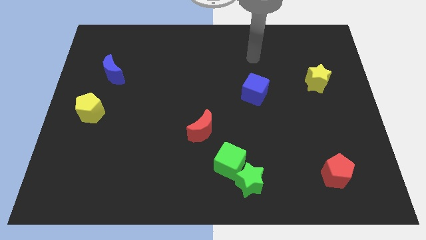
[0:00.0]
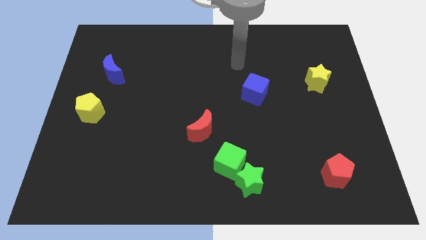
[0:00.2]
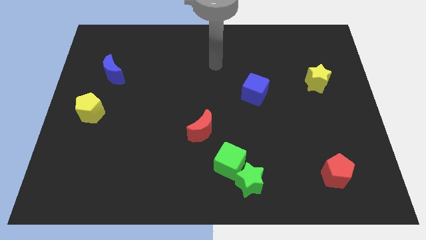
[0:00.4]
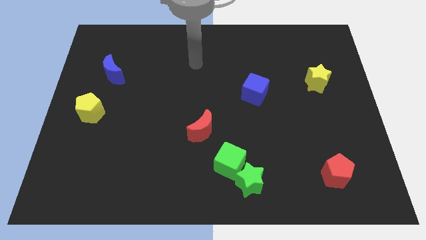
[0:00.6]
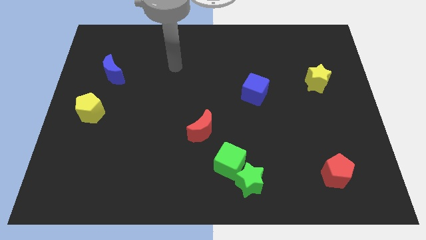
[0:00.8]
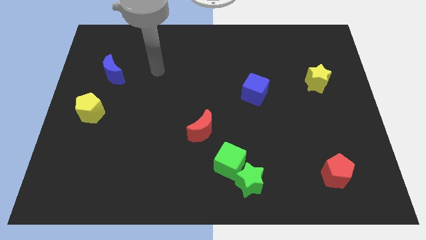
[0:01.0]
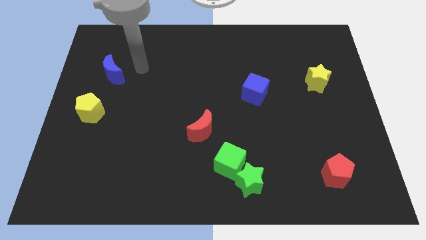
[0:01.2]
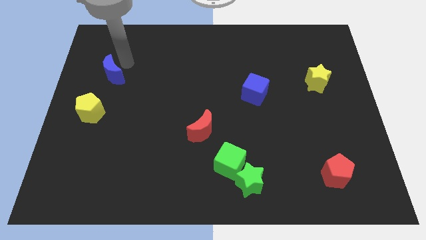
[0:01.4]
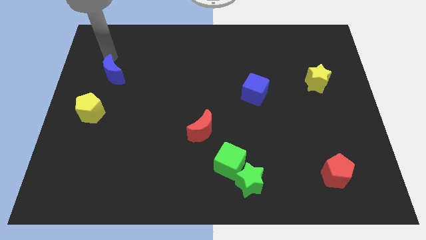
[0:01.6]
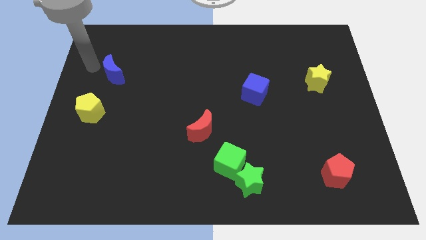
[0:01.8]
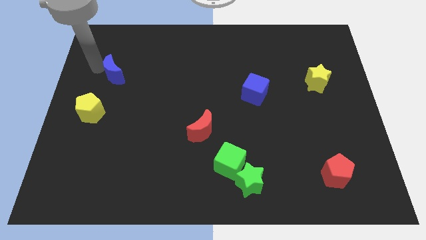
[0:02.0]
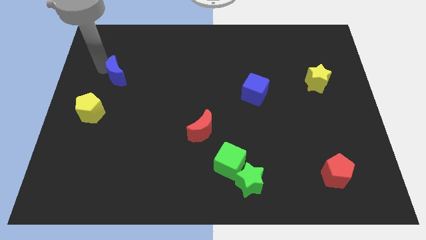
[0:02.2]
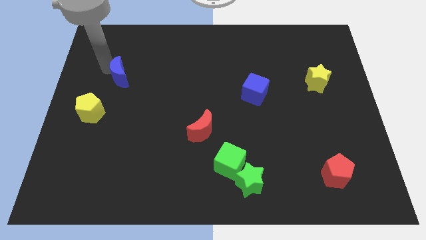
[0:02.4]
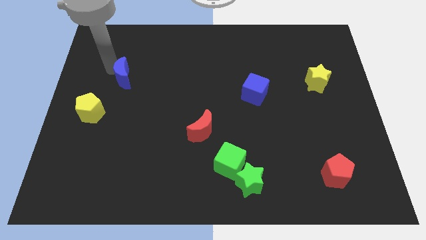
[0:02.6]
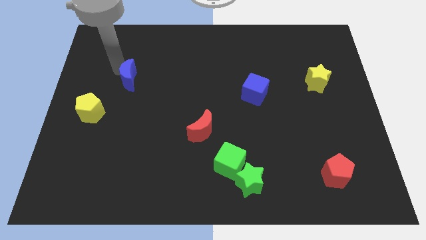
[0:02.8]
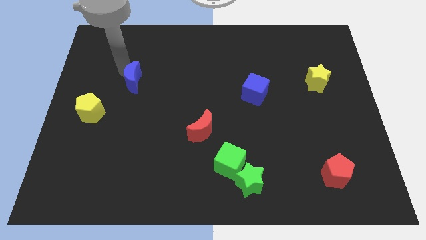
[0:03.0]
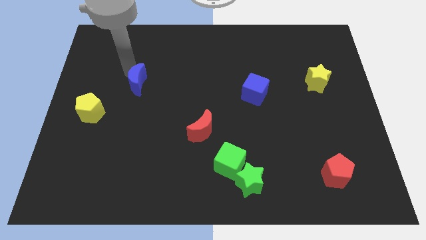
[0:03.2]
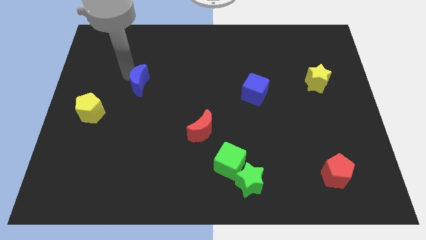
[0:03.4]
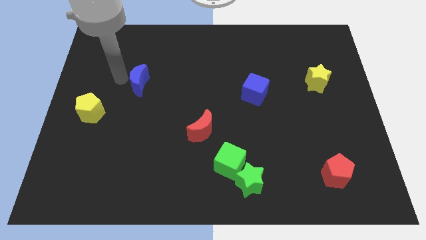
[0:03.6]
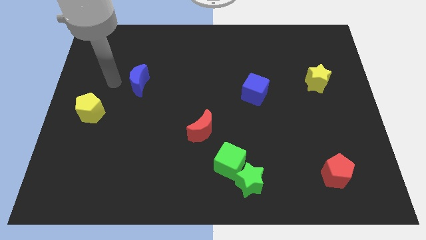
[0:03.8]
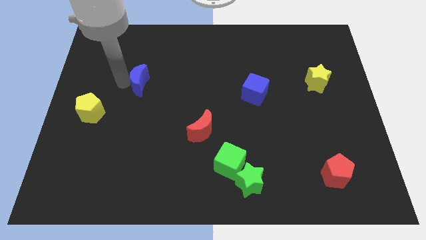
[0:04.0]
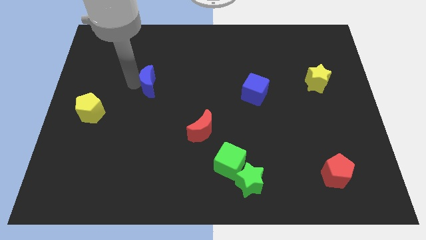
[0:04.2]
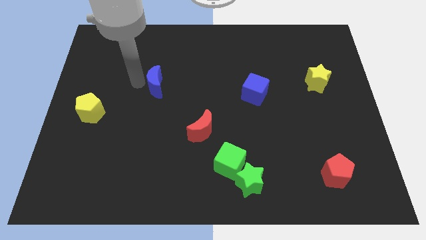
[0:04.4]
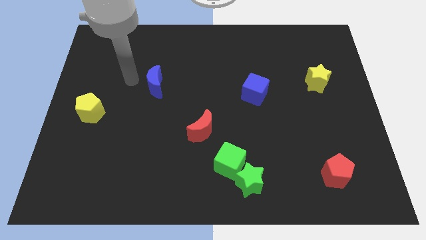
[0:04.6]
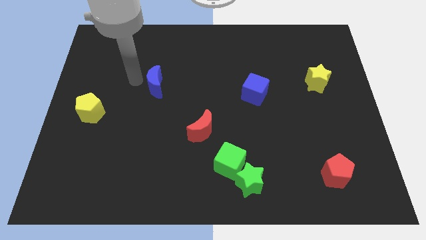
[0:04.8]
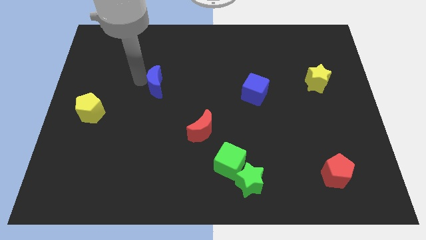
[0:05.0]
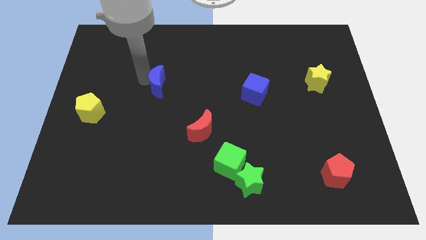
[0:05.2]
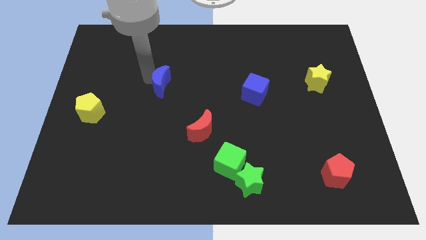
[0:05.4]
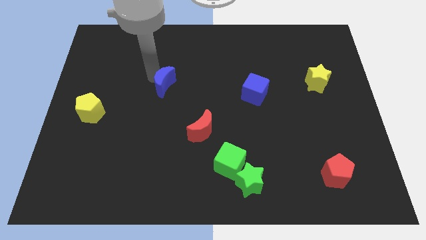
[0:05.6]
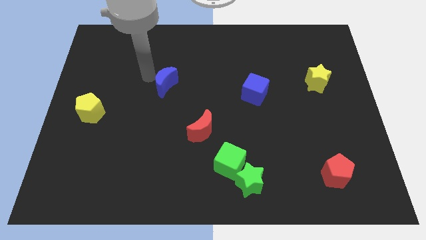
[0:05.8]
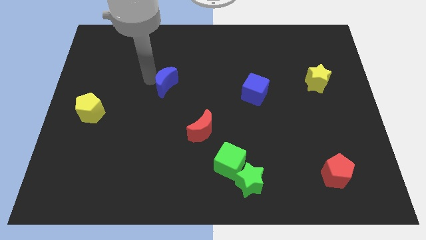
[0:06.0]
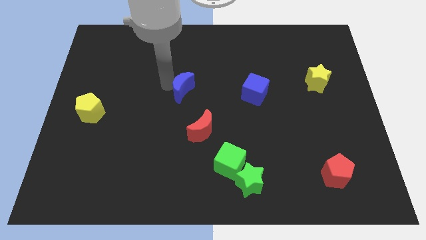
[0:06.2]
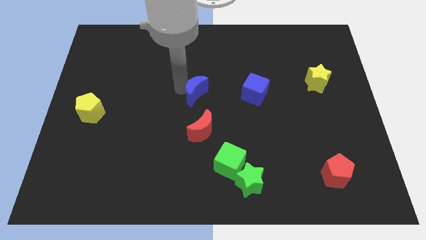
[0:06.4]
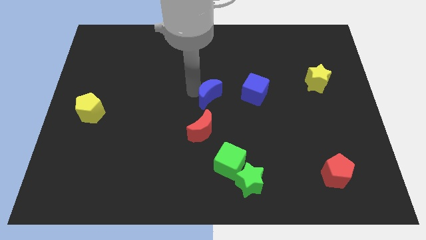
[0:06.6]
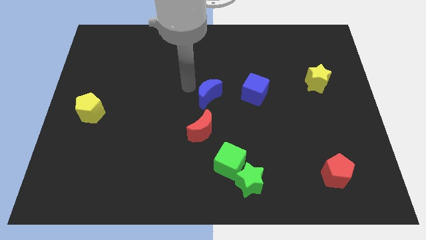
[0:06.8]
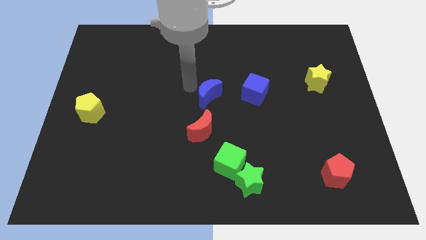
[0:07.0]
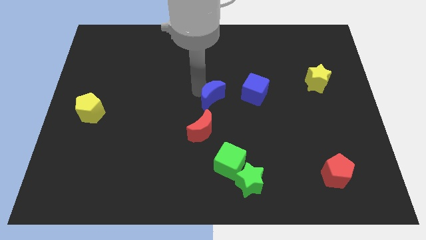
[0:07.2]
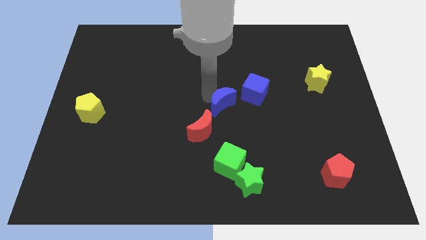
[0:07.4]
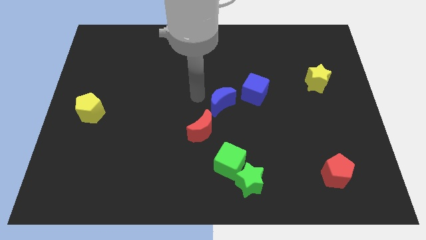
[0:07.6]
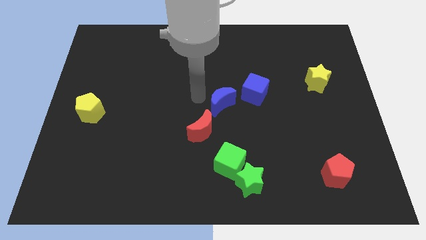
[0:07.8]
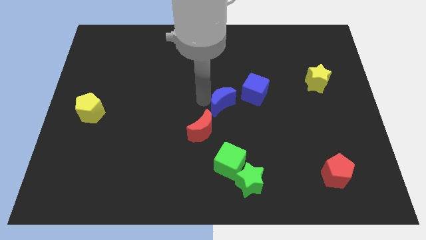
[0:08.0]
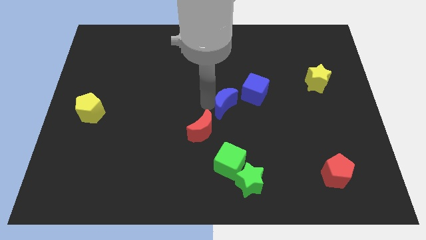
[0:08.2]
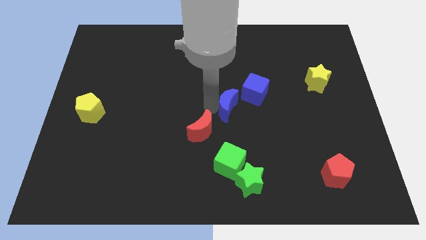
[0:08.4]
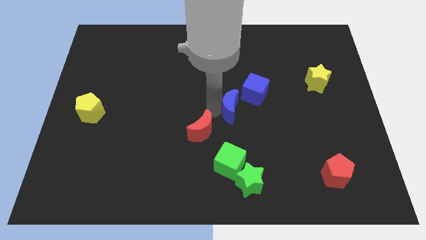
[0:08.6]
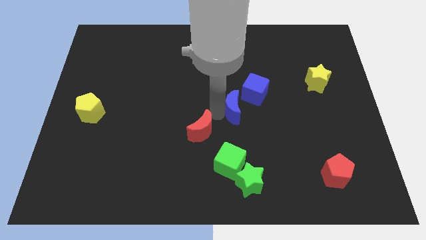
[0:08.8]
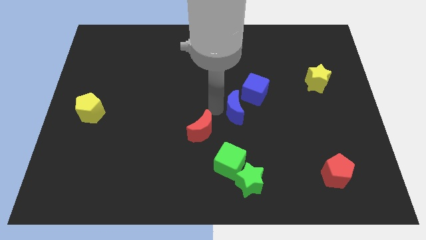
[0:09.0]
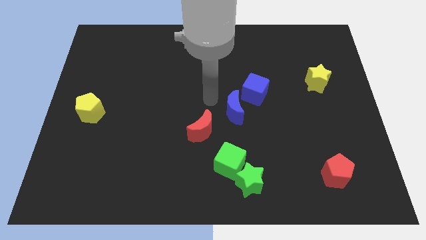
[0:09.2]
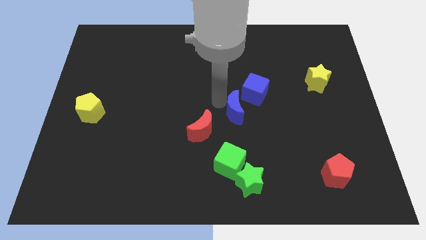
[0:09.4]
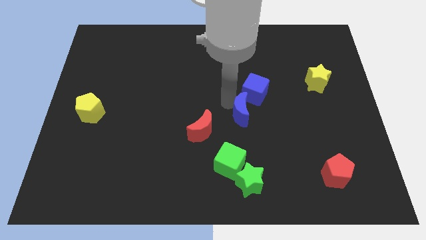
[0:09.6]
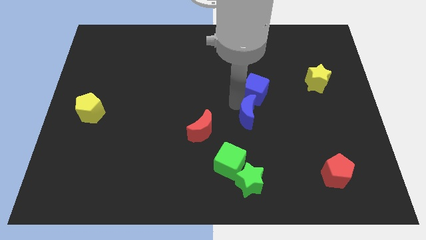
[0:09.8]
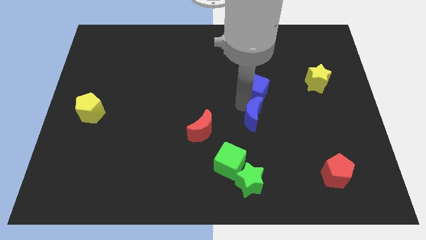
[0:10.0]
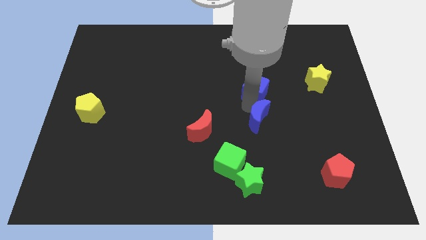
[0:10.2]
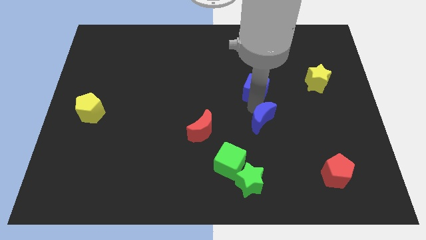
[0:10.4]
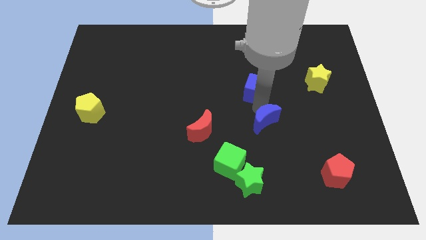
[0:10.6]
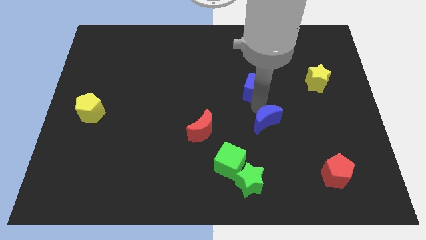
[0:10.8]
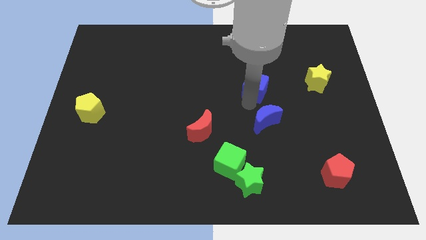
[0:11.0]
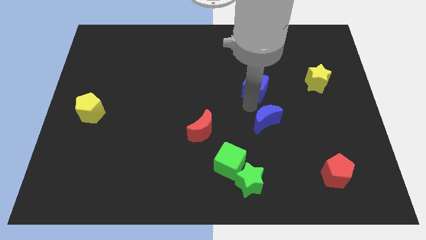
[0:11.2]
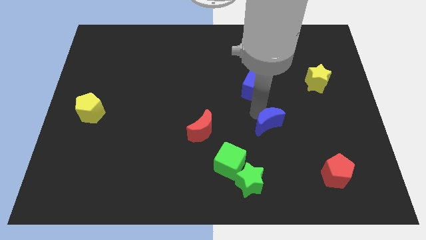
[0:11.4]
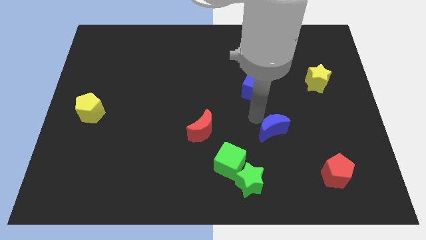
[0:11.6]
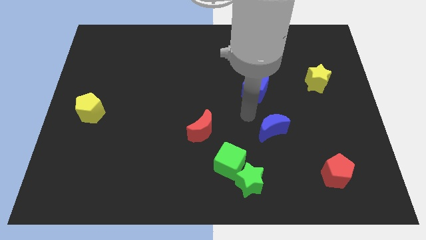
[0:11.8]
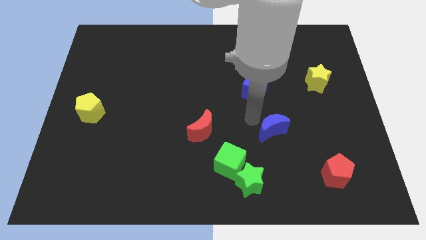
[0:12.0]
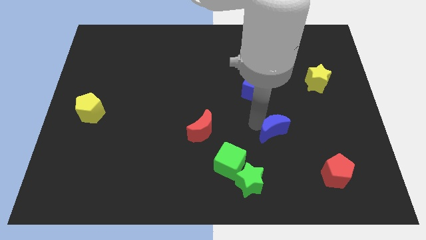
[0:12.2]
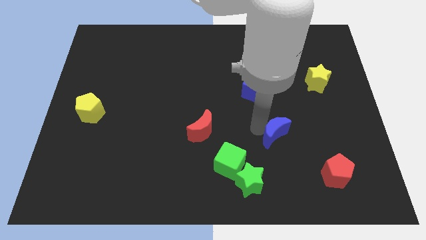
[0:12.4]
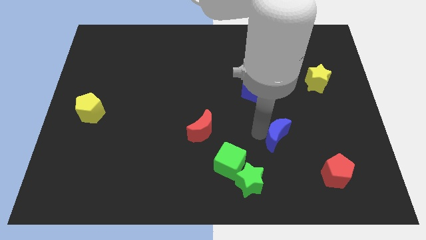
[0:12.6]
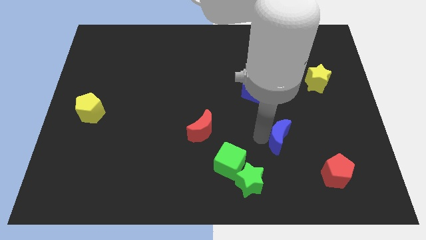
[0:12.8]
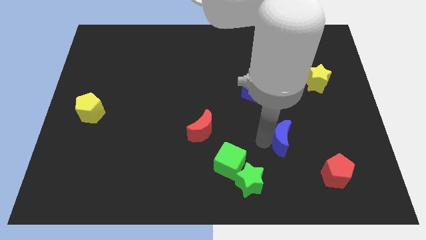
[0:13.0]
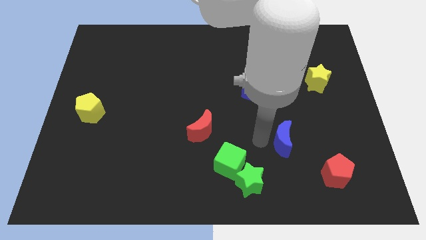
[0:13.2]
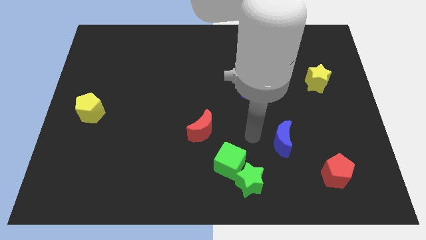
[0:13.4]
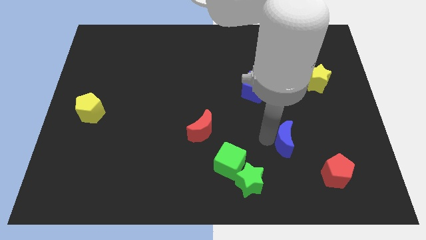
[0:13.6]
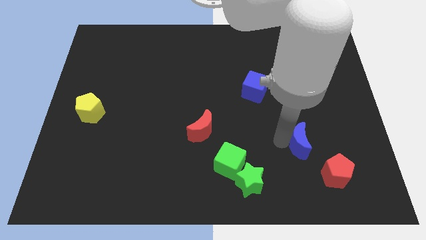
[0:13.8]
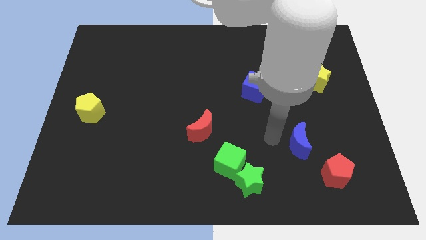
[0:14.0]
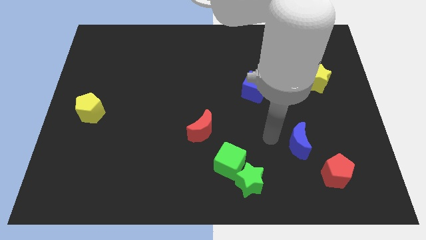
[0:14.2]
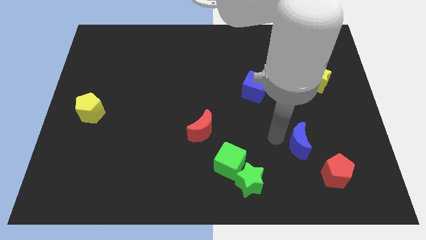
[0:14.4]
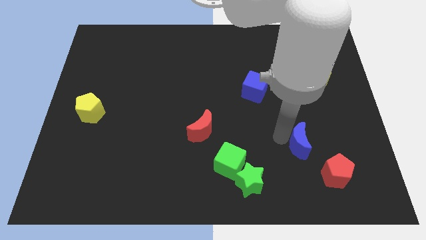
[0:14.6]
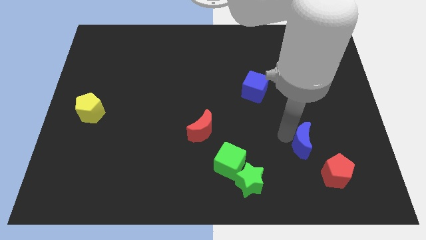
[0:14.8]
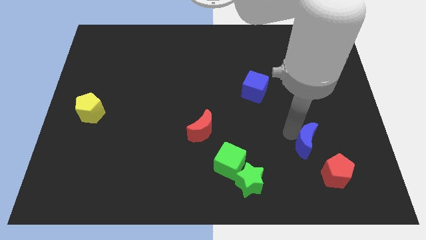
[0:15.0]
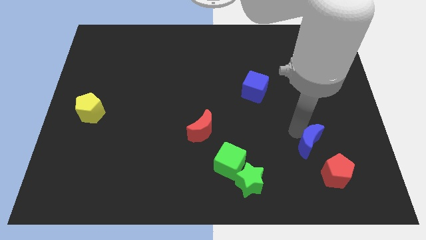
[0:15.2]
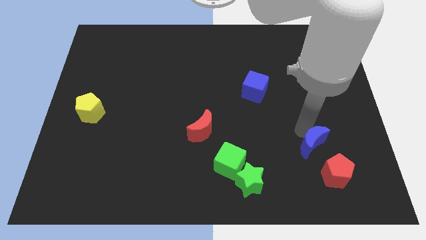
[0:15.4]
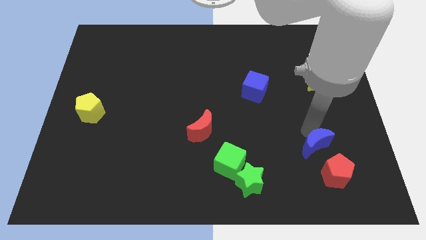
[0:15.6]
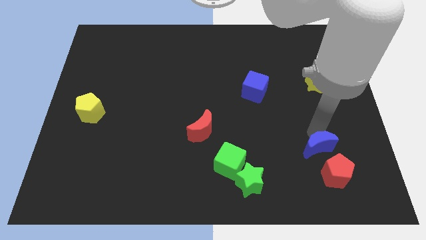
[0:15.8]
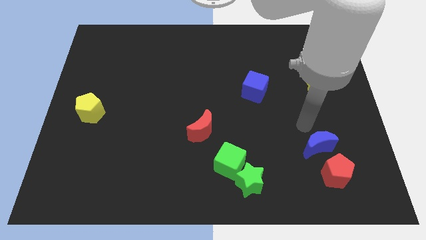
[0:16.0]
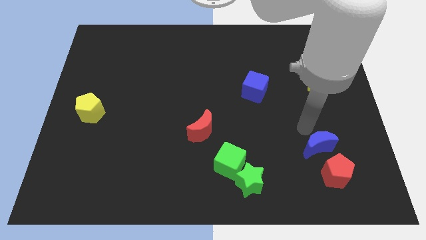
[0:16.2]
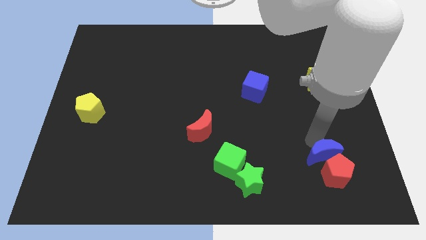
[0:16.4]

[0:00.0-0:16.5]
move the blue moon to the red pentagon
